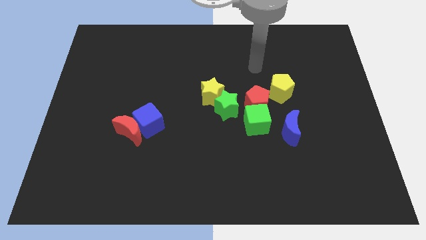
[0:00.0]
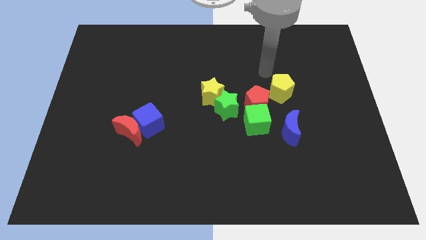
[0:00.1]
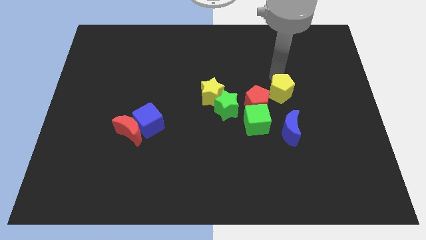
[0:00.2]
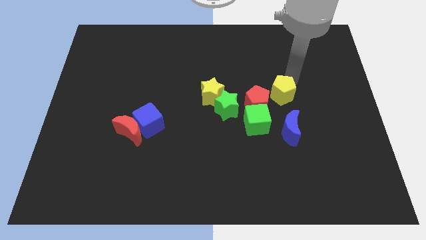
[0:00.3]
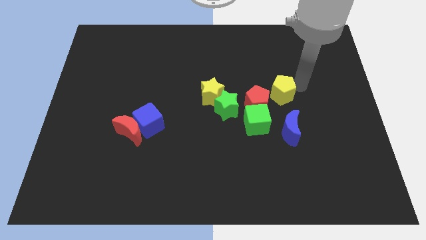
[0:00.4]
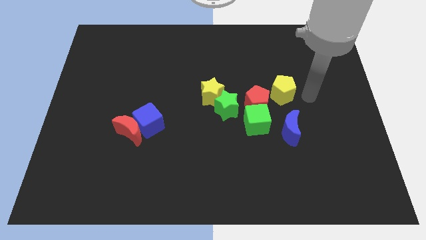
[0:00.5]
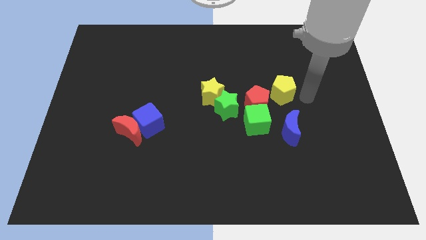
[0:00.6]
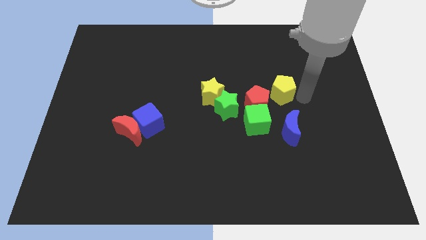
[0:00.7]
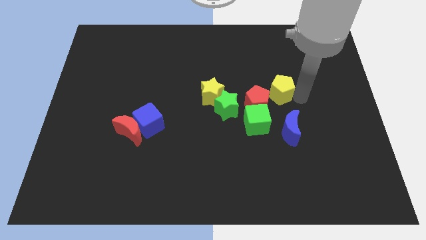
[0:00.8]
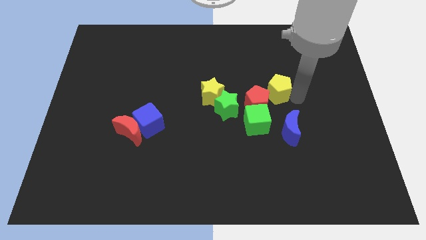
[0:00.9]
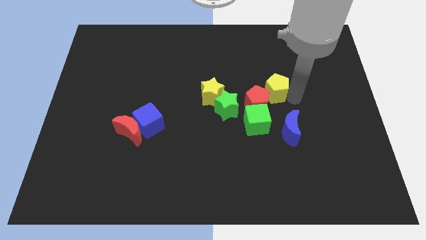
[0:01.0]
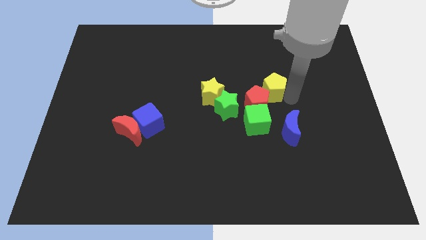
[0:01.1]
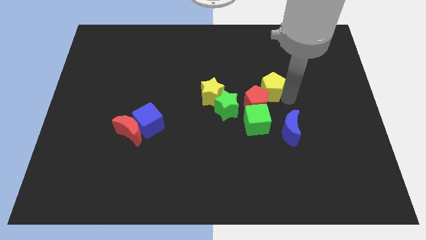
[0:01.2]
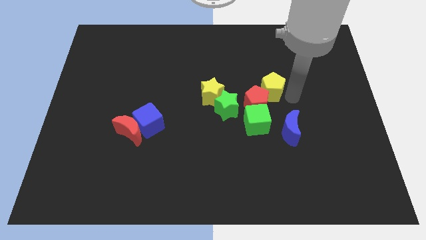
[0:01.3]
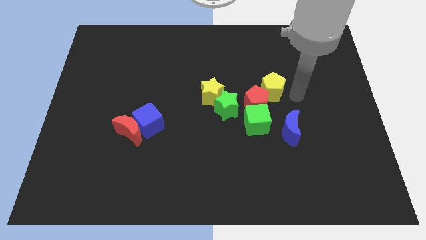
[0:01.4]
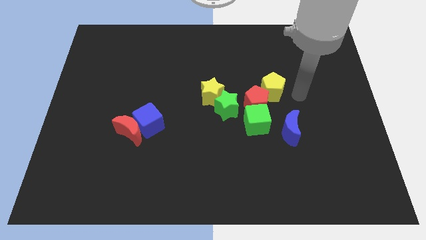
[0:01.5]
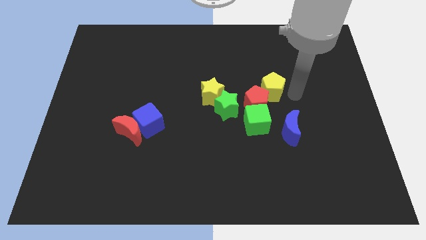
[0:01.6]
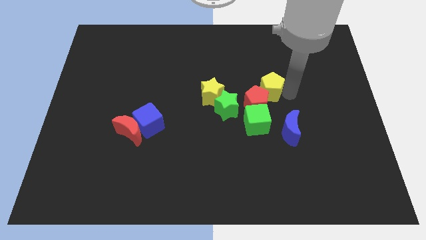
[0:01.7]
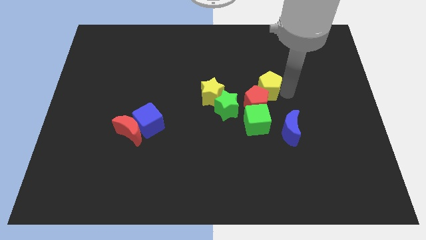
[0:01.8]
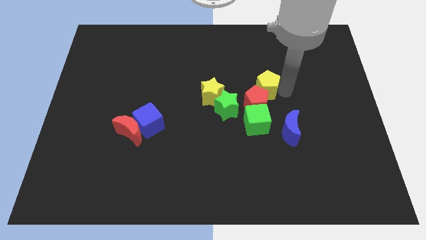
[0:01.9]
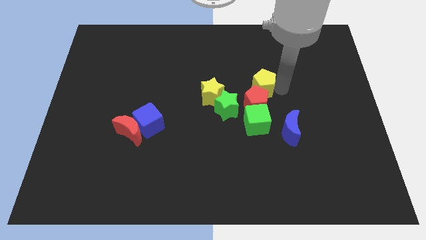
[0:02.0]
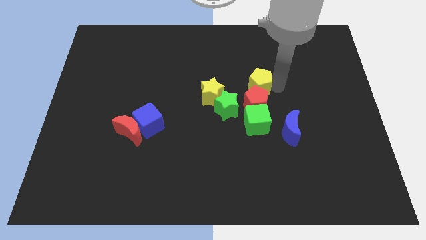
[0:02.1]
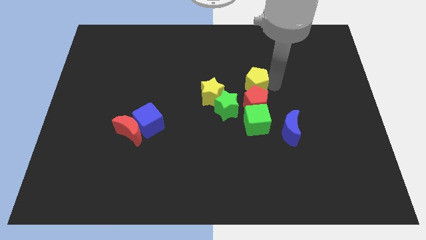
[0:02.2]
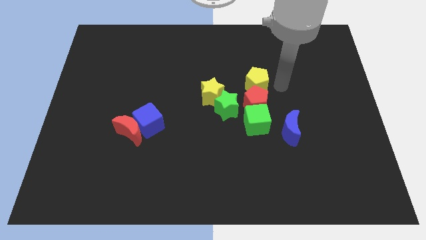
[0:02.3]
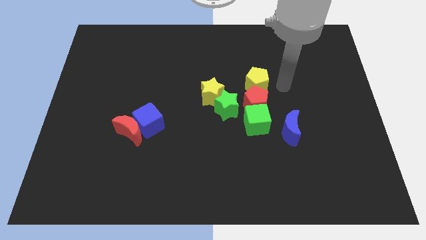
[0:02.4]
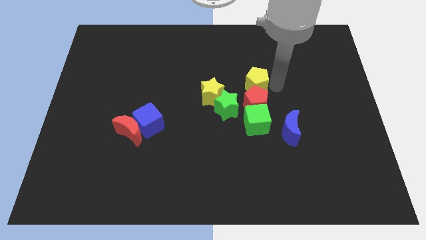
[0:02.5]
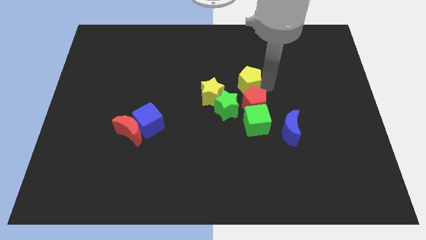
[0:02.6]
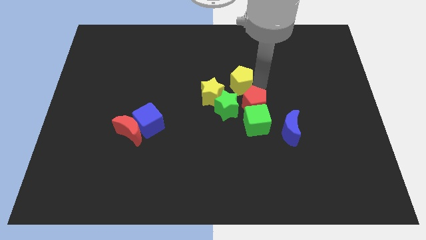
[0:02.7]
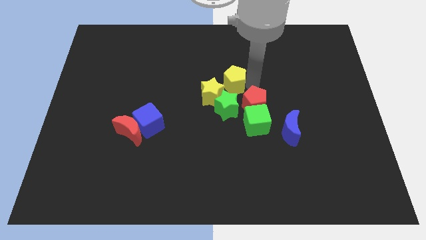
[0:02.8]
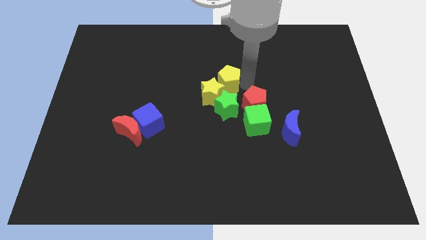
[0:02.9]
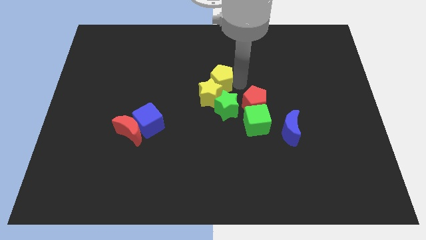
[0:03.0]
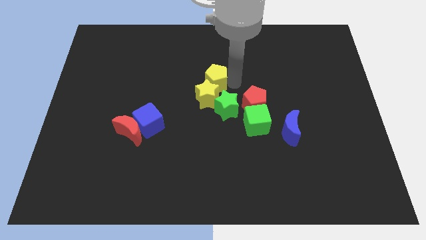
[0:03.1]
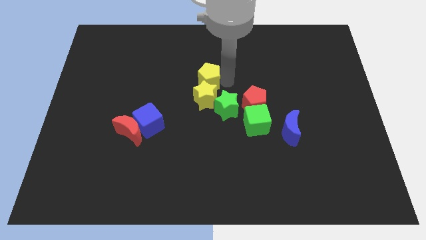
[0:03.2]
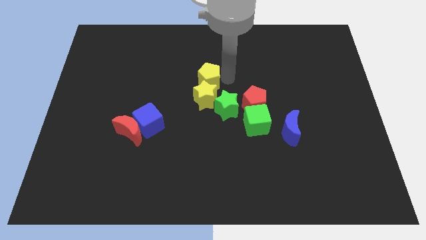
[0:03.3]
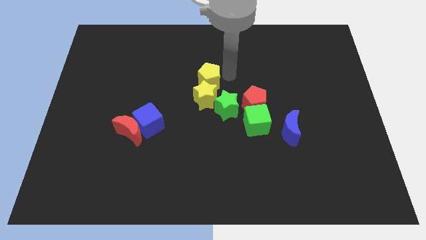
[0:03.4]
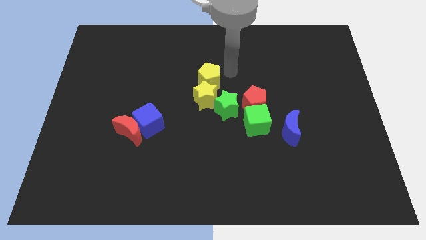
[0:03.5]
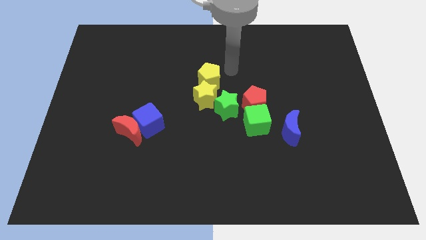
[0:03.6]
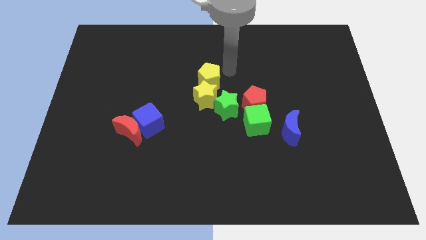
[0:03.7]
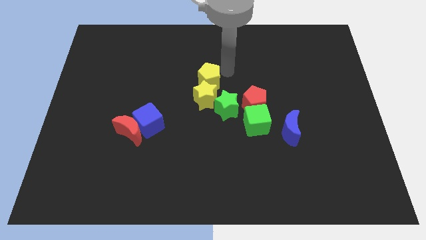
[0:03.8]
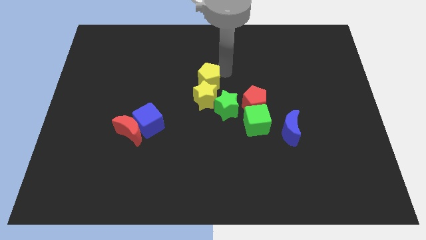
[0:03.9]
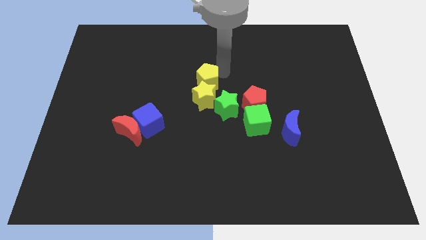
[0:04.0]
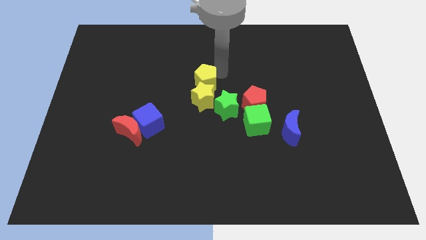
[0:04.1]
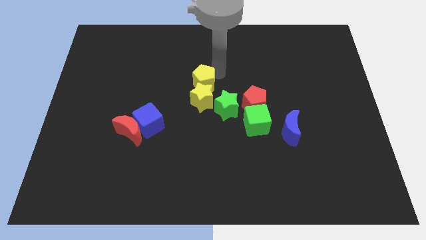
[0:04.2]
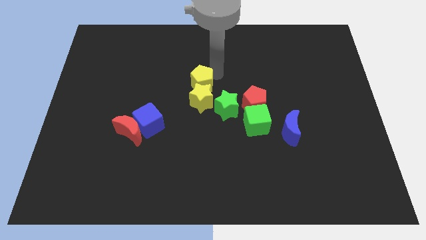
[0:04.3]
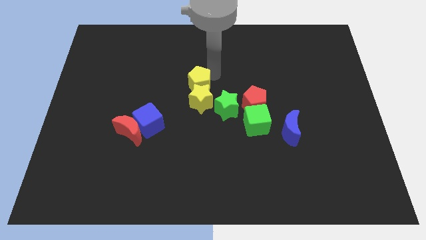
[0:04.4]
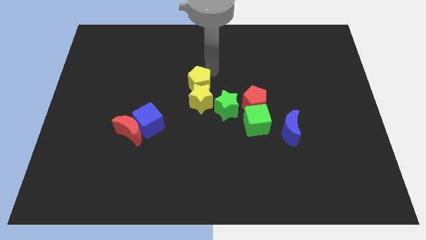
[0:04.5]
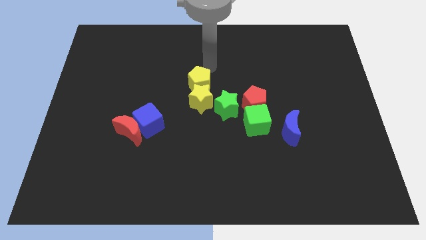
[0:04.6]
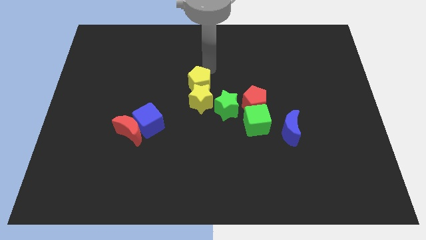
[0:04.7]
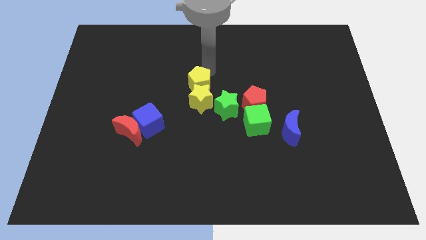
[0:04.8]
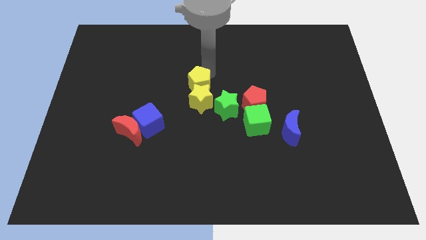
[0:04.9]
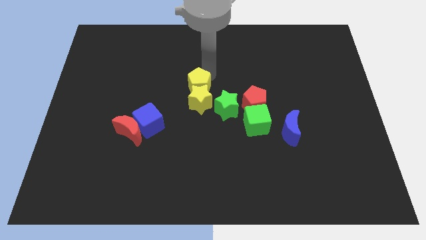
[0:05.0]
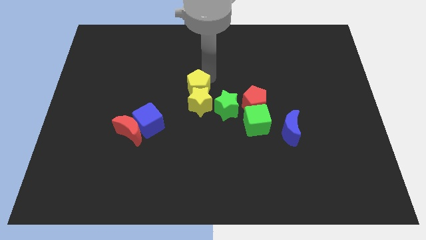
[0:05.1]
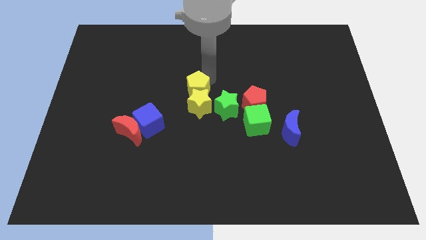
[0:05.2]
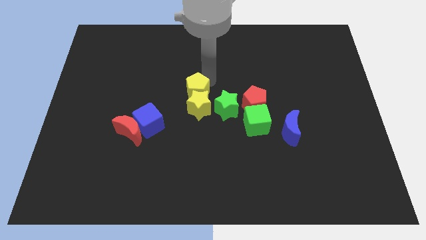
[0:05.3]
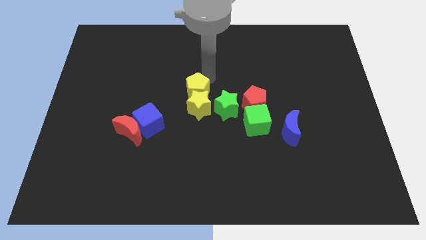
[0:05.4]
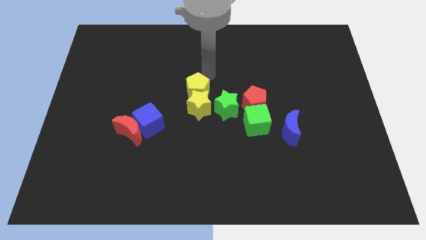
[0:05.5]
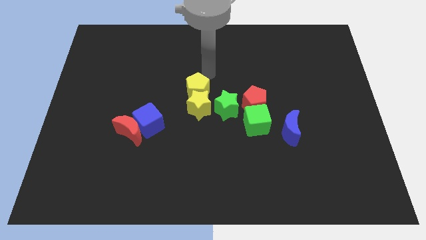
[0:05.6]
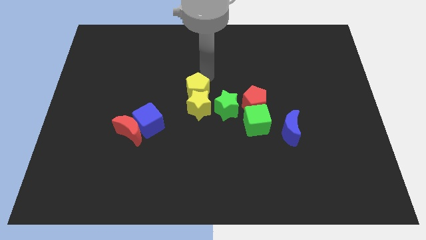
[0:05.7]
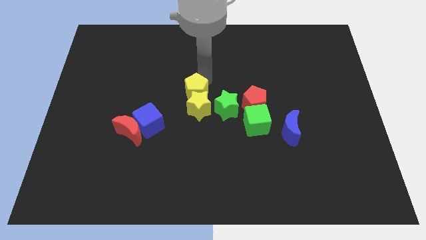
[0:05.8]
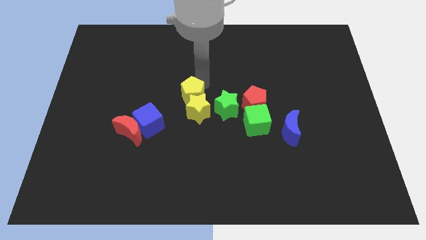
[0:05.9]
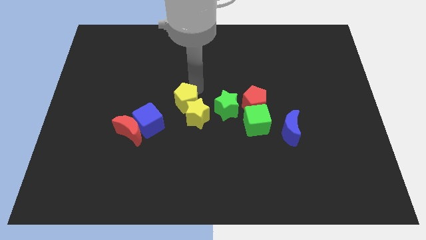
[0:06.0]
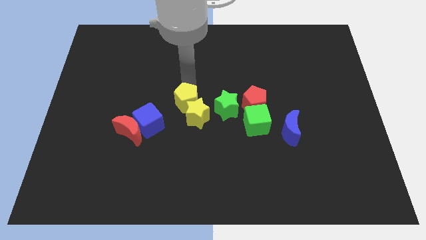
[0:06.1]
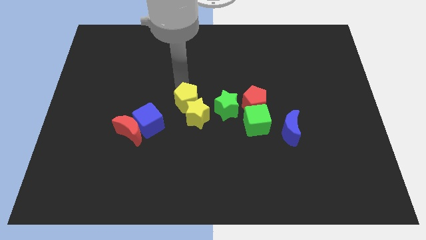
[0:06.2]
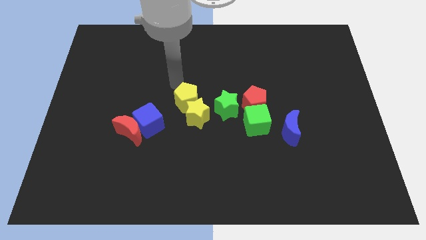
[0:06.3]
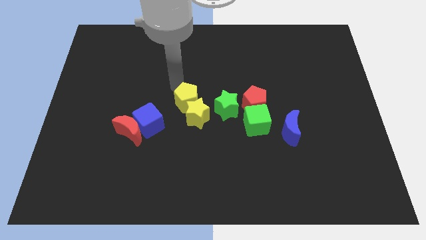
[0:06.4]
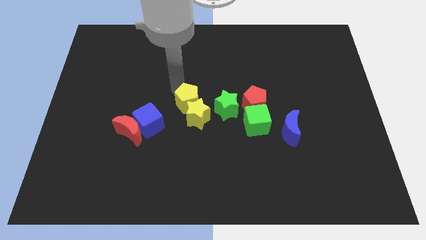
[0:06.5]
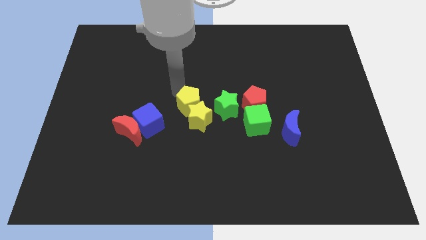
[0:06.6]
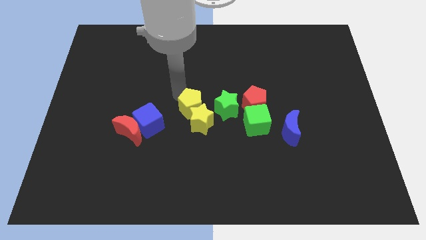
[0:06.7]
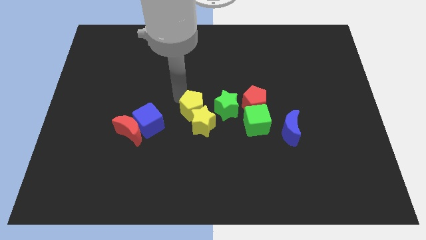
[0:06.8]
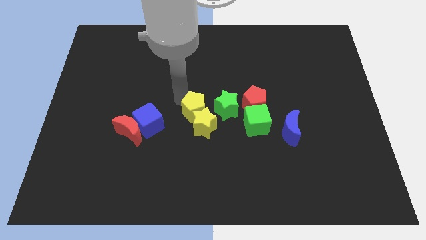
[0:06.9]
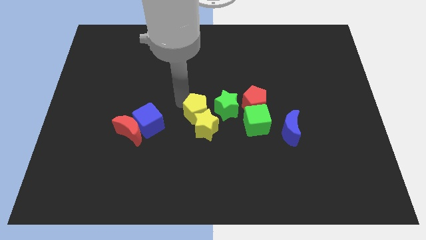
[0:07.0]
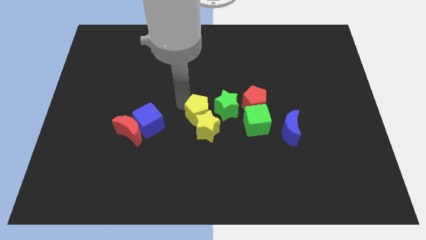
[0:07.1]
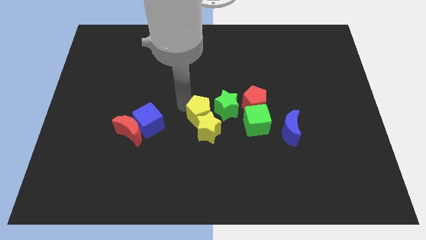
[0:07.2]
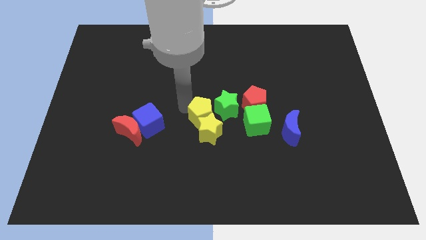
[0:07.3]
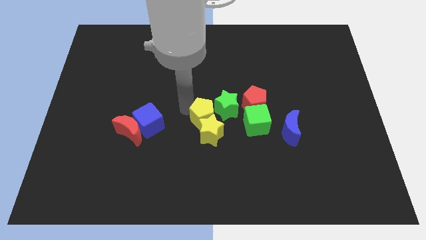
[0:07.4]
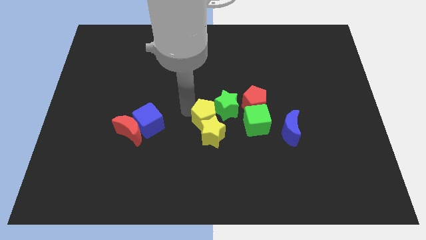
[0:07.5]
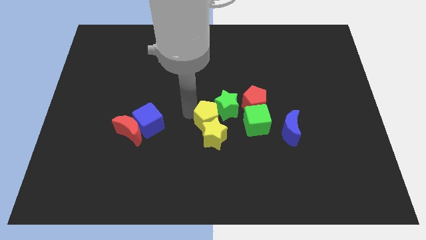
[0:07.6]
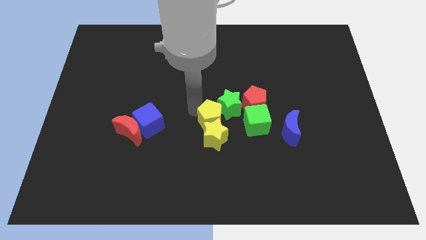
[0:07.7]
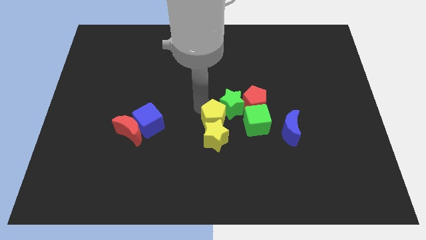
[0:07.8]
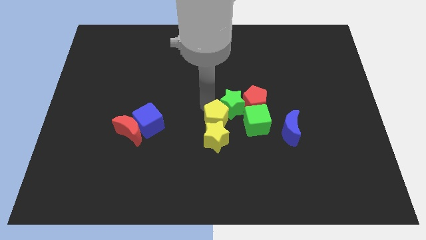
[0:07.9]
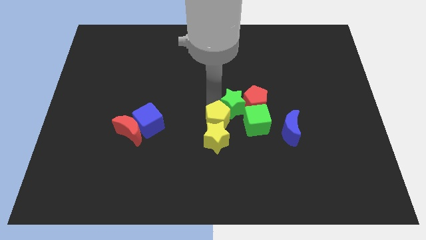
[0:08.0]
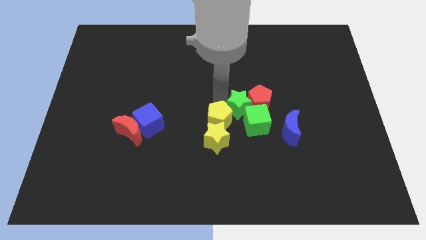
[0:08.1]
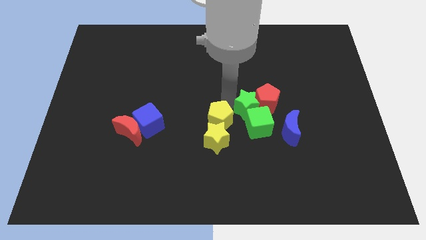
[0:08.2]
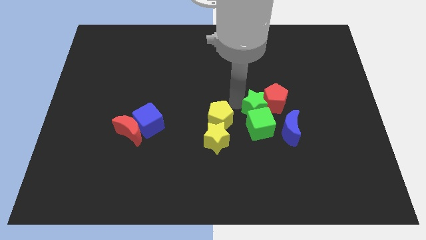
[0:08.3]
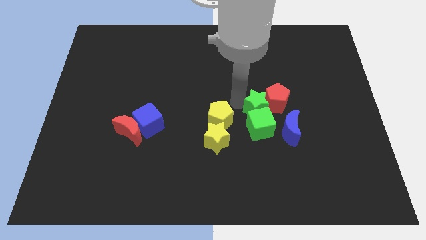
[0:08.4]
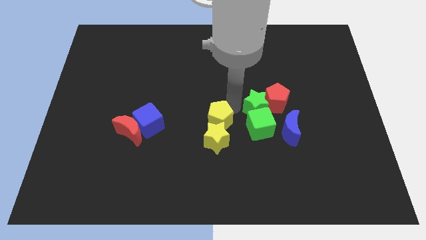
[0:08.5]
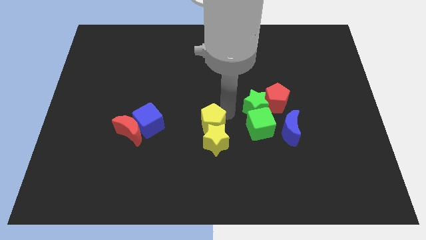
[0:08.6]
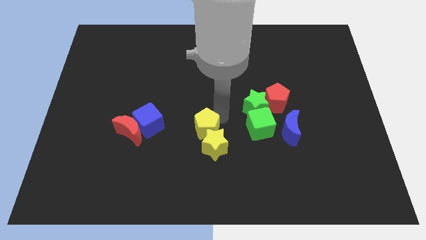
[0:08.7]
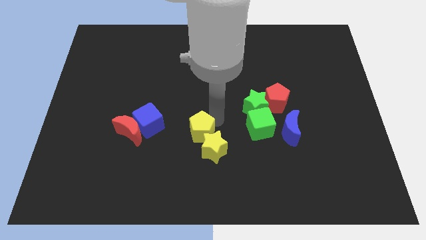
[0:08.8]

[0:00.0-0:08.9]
push the yellow pentagon downwards and then left
